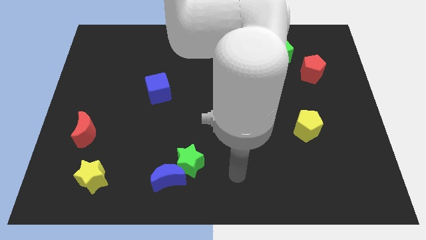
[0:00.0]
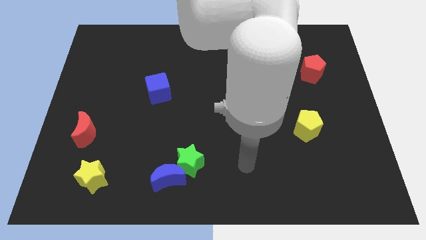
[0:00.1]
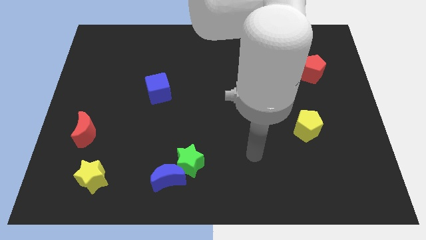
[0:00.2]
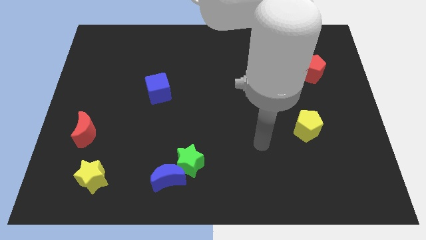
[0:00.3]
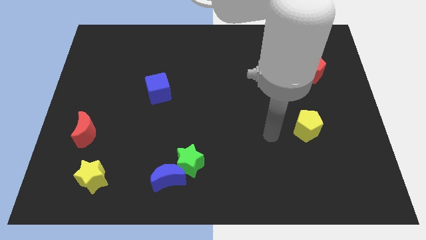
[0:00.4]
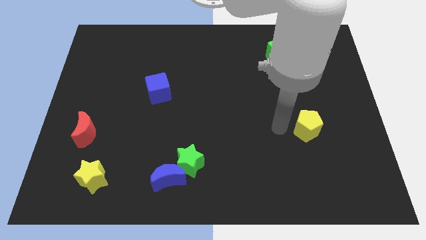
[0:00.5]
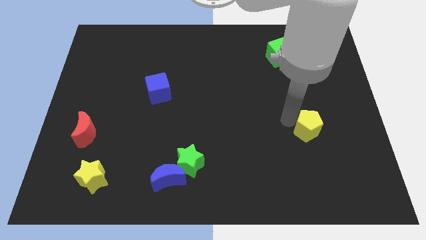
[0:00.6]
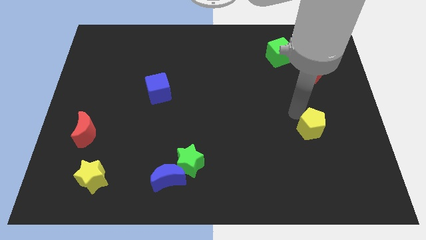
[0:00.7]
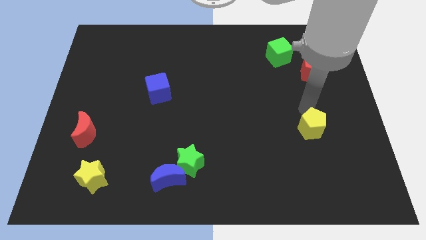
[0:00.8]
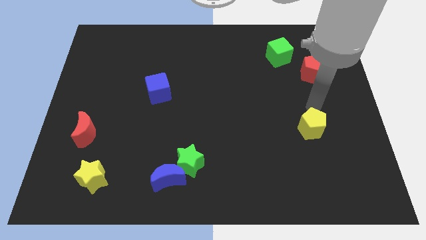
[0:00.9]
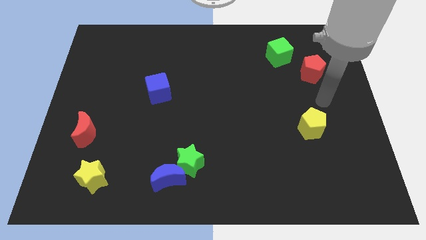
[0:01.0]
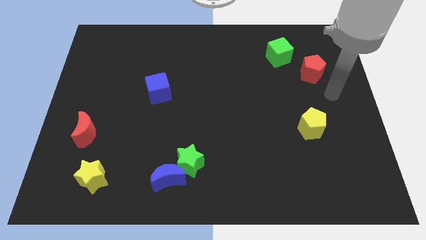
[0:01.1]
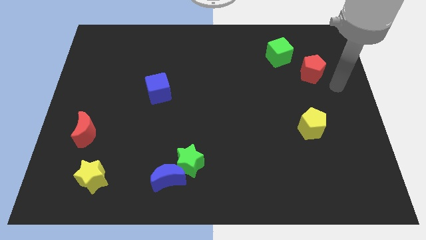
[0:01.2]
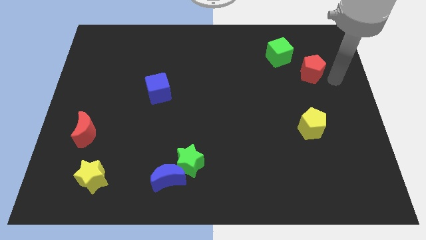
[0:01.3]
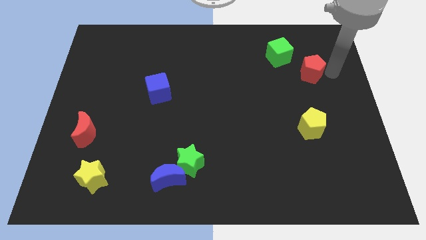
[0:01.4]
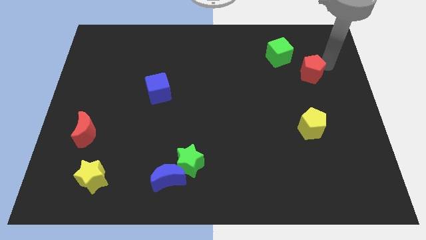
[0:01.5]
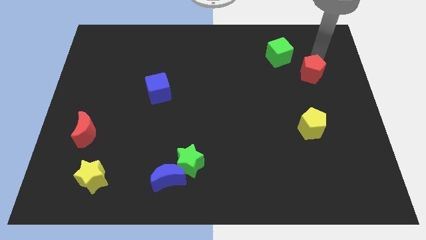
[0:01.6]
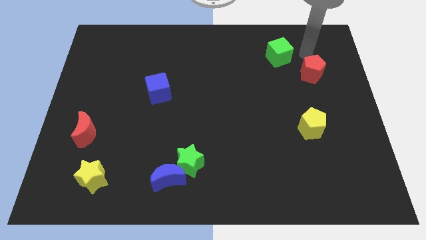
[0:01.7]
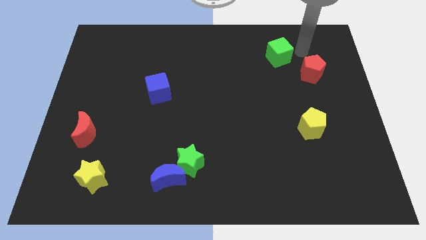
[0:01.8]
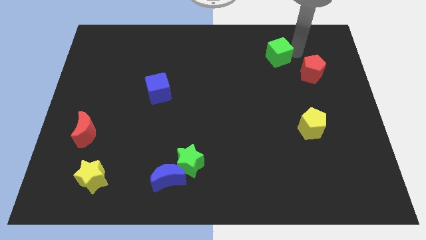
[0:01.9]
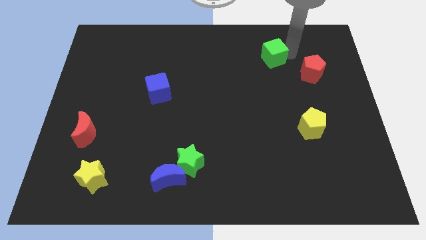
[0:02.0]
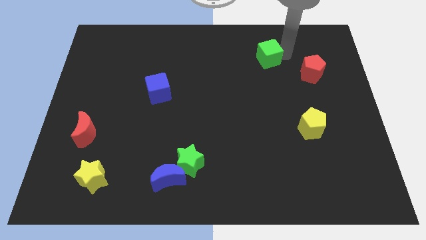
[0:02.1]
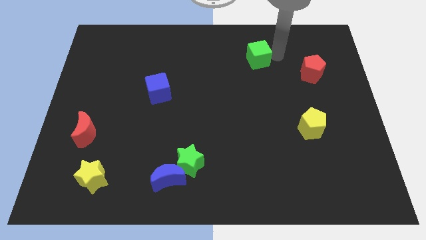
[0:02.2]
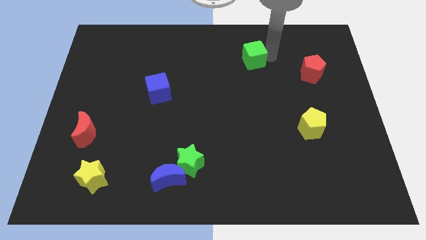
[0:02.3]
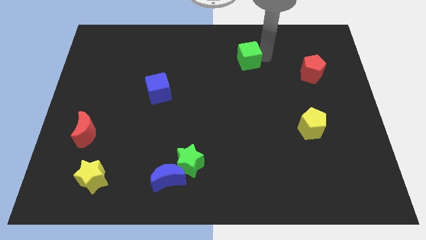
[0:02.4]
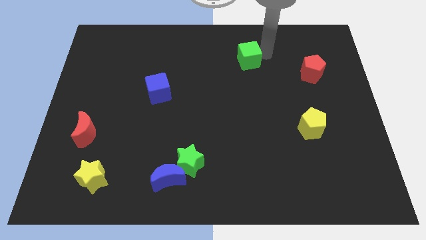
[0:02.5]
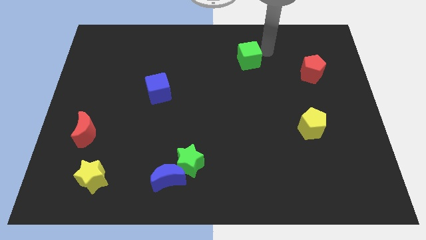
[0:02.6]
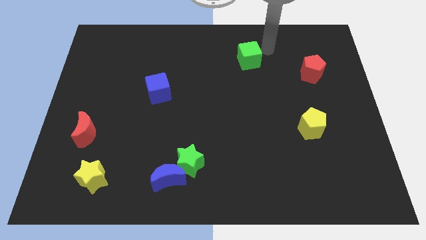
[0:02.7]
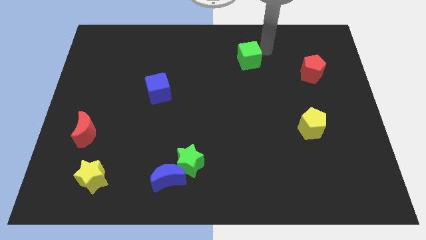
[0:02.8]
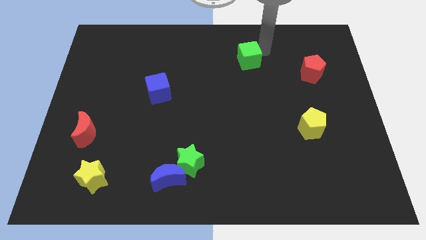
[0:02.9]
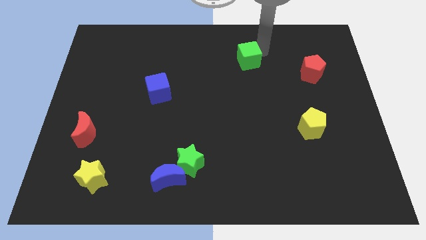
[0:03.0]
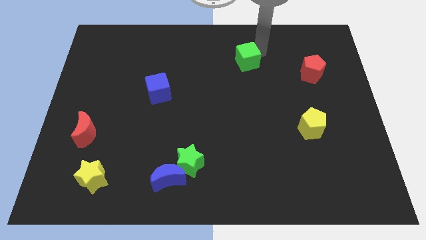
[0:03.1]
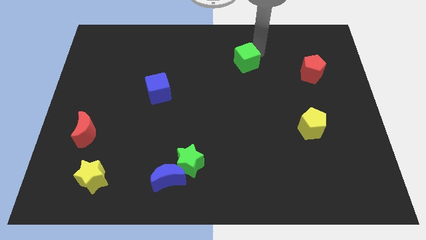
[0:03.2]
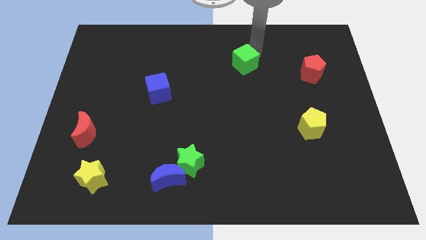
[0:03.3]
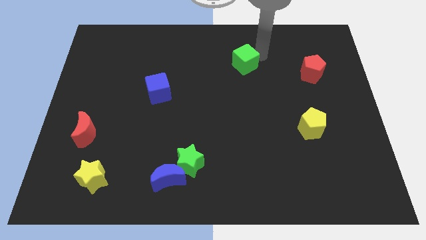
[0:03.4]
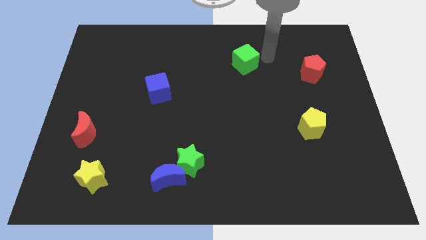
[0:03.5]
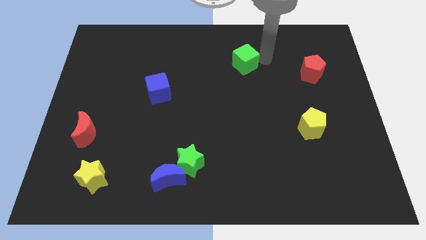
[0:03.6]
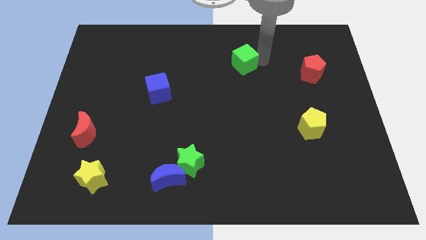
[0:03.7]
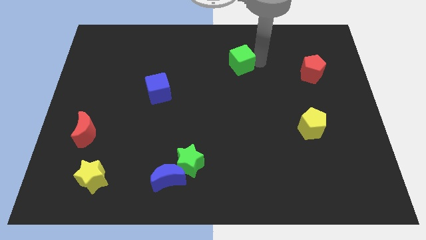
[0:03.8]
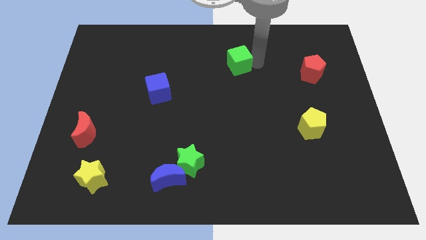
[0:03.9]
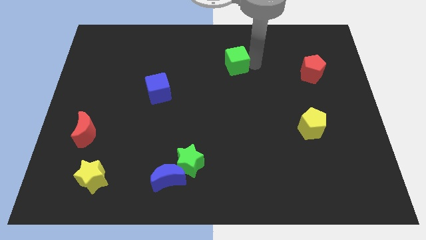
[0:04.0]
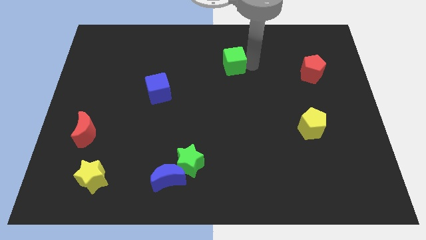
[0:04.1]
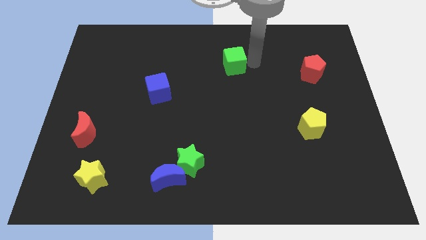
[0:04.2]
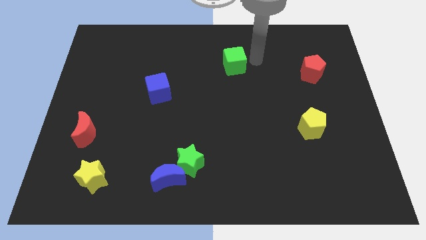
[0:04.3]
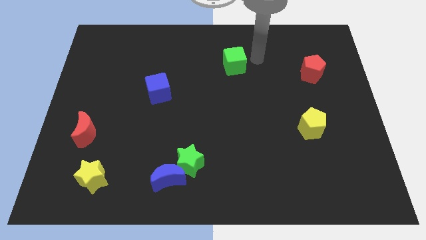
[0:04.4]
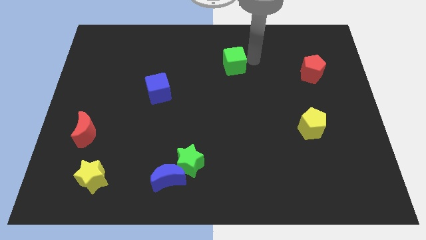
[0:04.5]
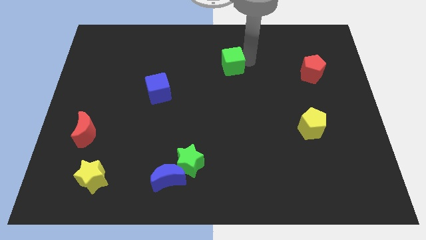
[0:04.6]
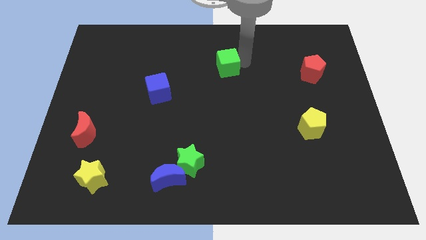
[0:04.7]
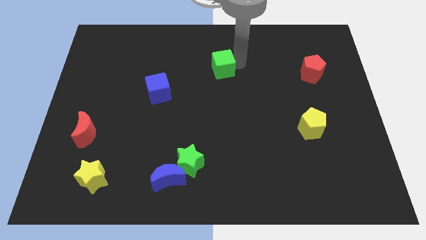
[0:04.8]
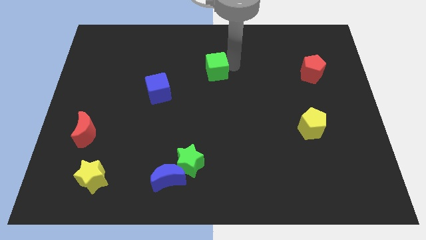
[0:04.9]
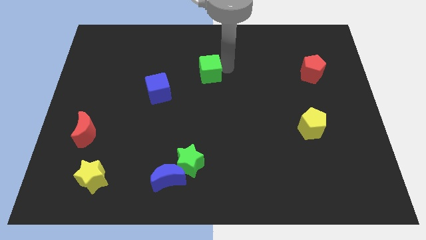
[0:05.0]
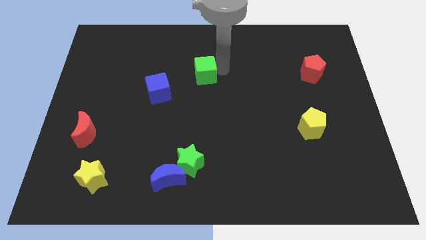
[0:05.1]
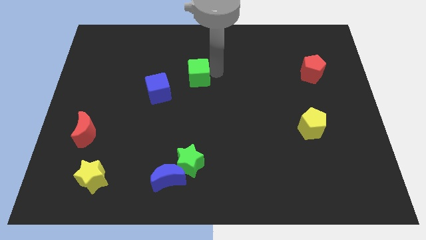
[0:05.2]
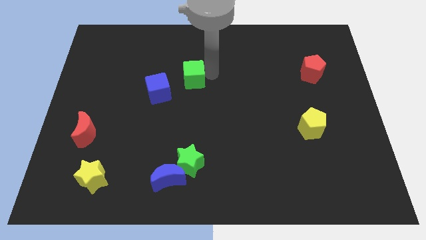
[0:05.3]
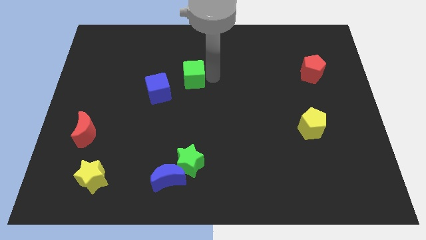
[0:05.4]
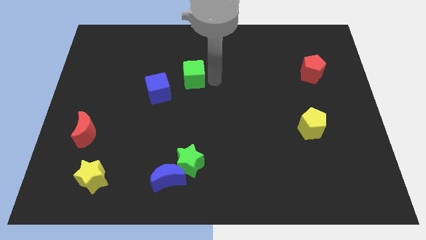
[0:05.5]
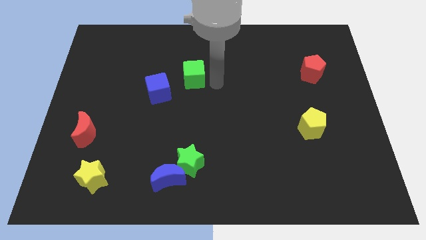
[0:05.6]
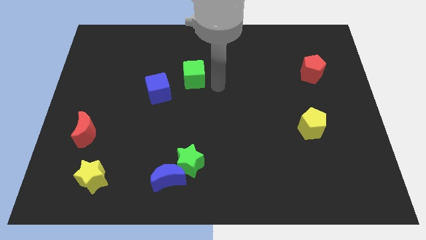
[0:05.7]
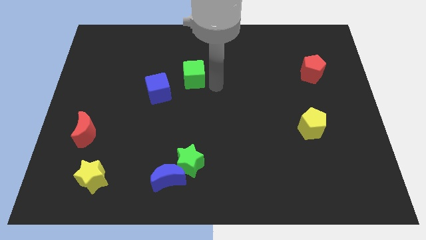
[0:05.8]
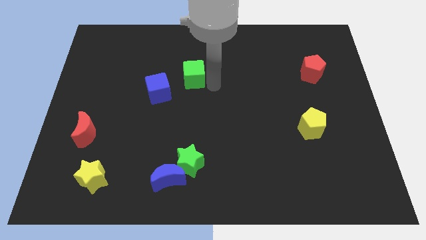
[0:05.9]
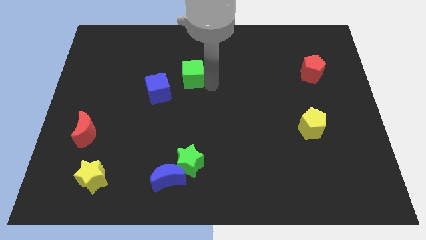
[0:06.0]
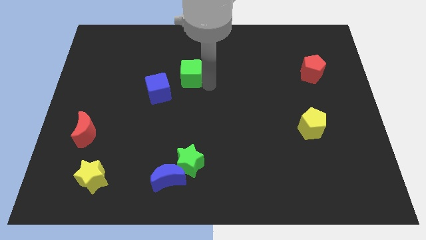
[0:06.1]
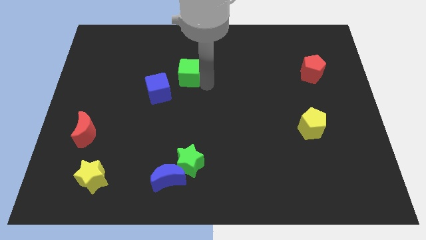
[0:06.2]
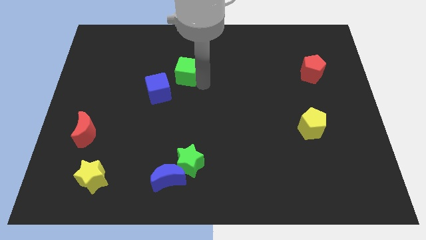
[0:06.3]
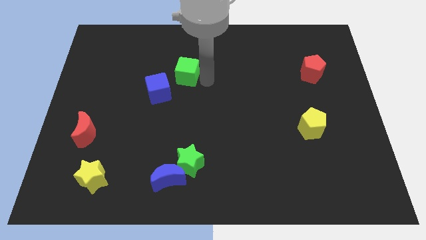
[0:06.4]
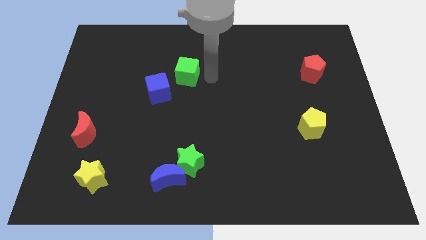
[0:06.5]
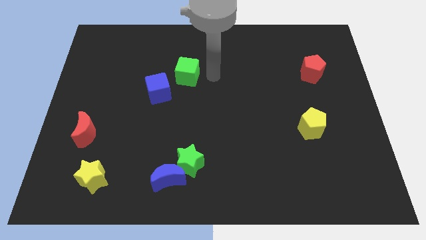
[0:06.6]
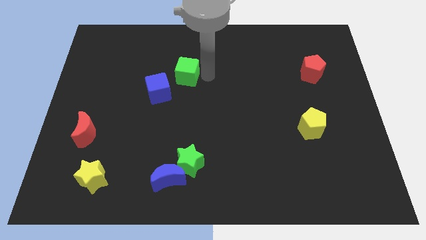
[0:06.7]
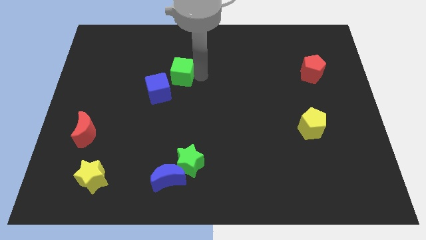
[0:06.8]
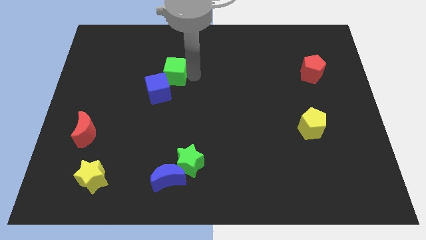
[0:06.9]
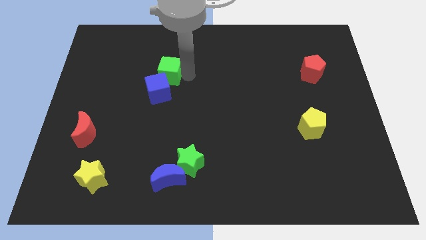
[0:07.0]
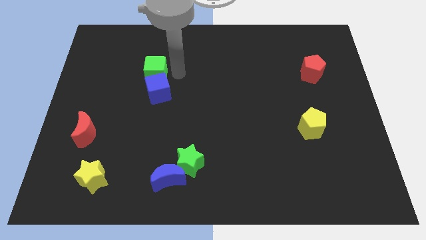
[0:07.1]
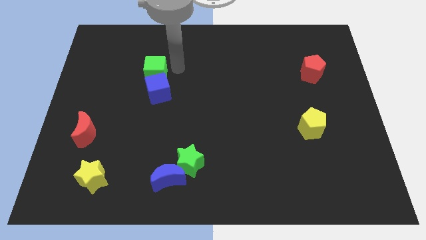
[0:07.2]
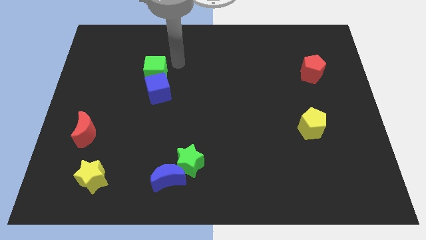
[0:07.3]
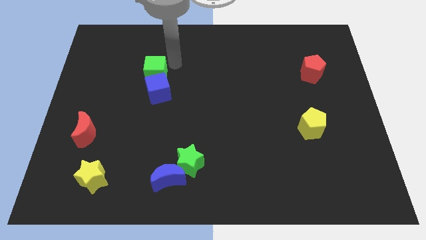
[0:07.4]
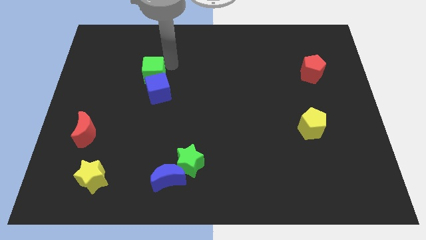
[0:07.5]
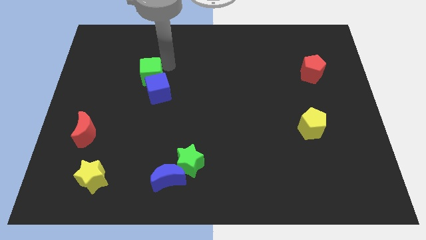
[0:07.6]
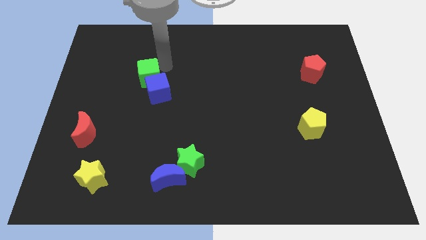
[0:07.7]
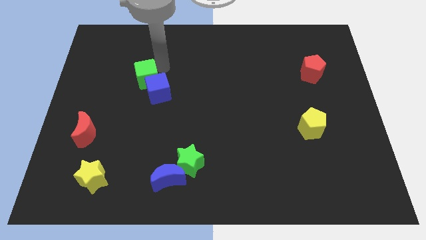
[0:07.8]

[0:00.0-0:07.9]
put the green cube just left of the blue cube

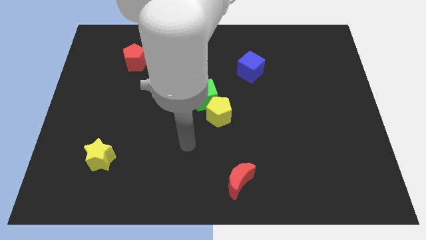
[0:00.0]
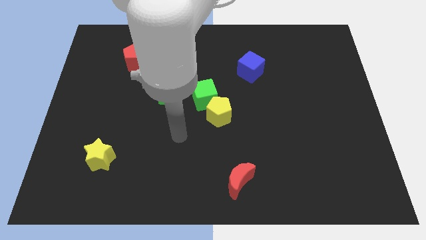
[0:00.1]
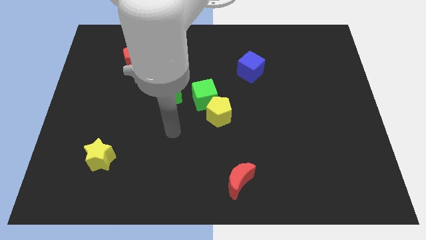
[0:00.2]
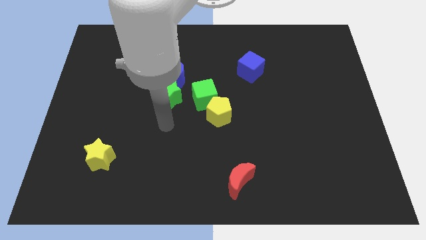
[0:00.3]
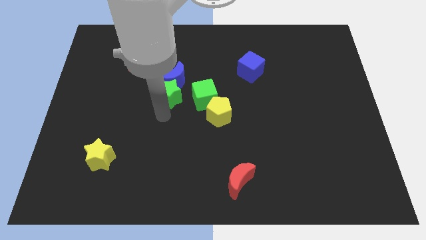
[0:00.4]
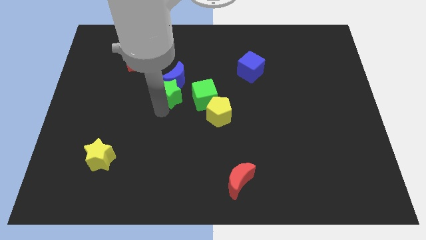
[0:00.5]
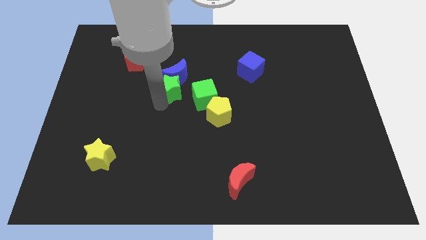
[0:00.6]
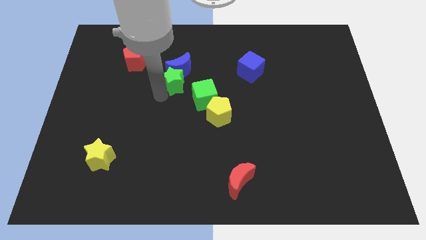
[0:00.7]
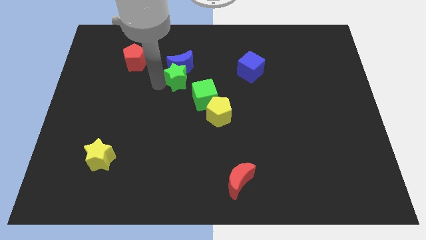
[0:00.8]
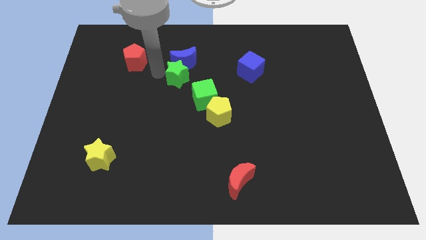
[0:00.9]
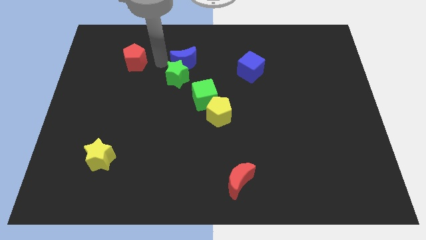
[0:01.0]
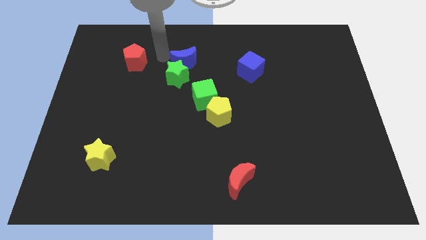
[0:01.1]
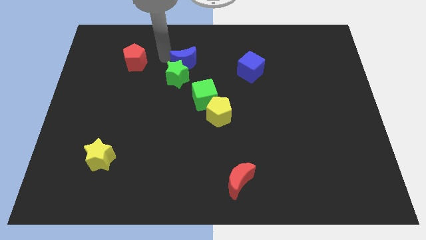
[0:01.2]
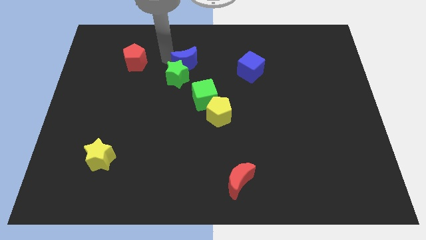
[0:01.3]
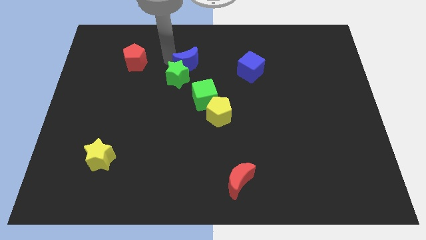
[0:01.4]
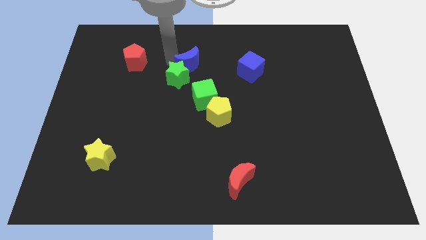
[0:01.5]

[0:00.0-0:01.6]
push the blue moon left of the blue cube
